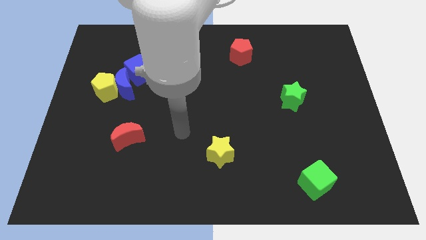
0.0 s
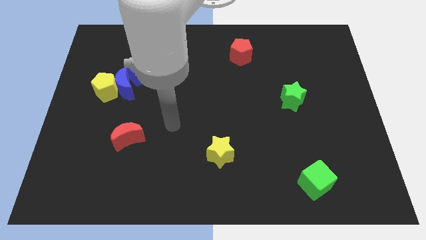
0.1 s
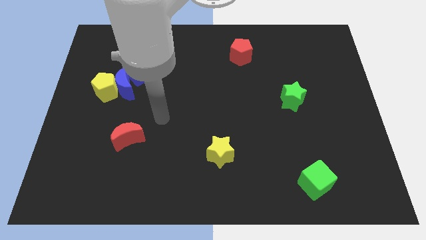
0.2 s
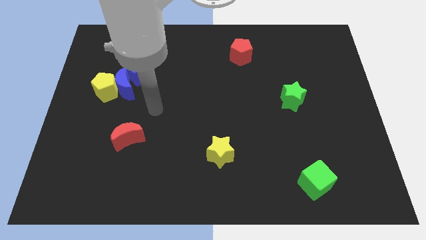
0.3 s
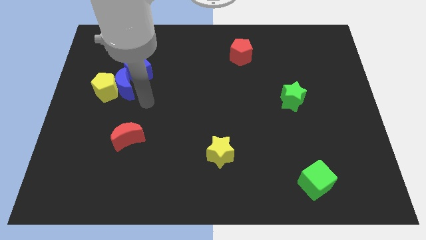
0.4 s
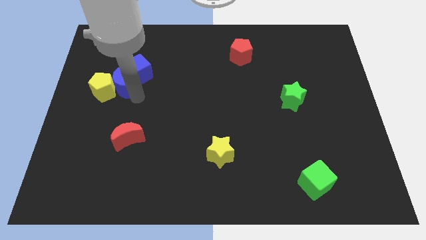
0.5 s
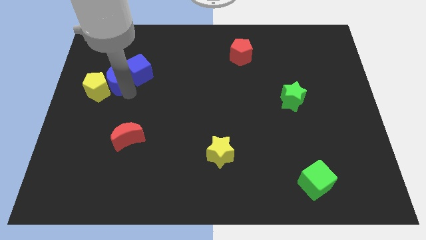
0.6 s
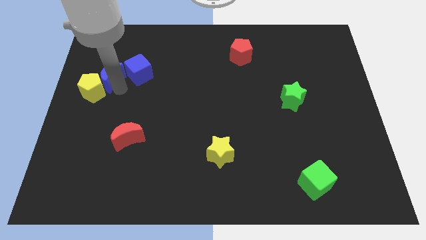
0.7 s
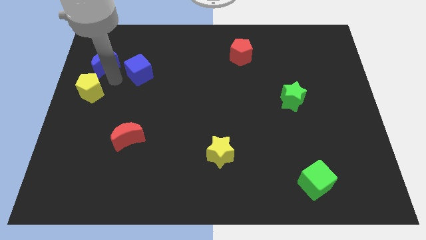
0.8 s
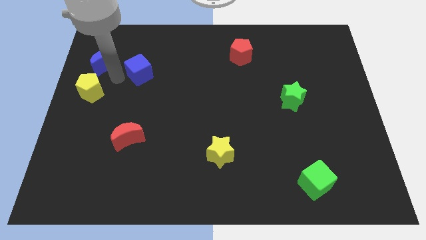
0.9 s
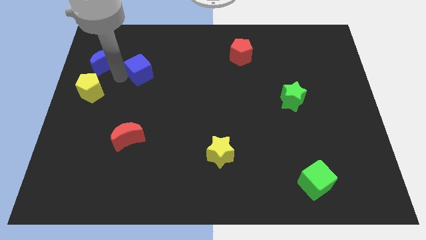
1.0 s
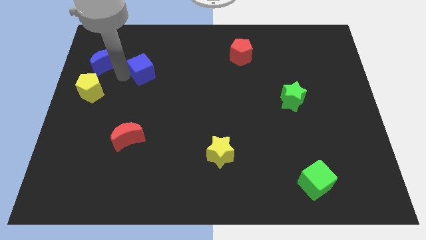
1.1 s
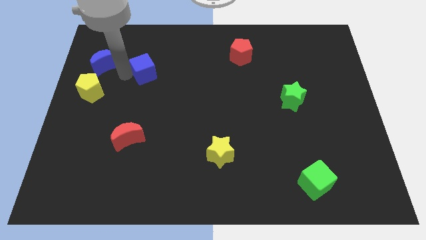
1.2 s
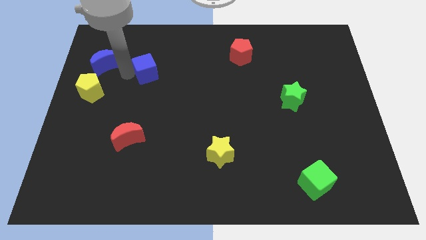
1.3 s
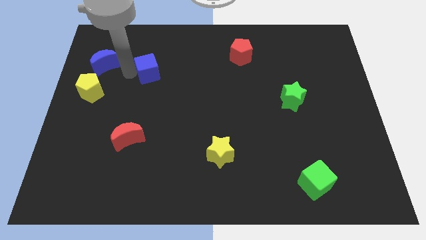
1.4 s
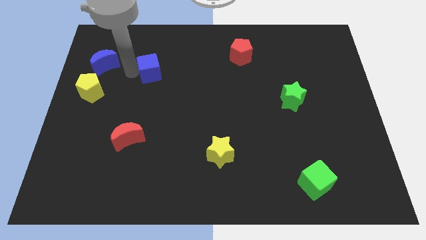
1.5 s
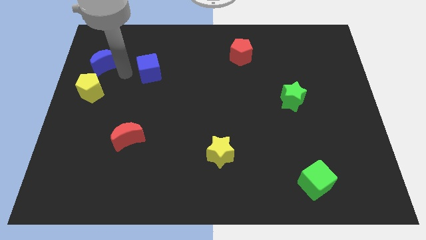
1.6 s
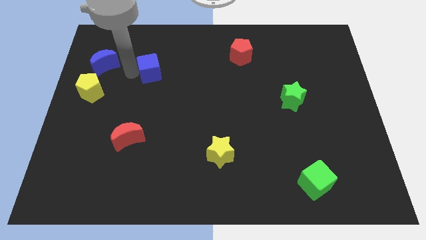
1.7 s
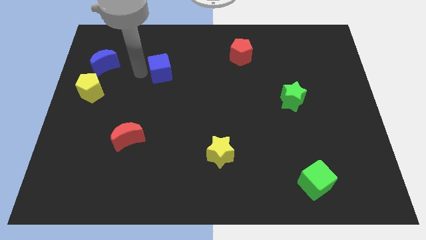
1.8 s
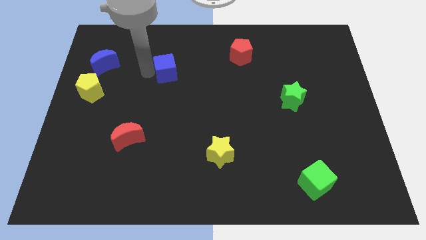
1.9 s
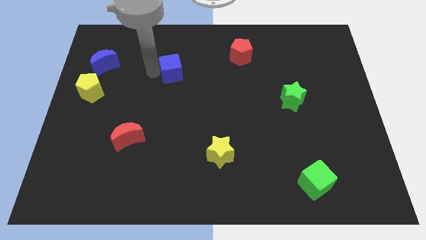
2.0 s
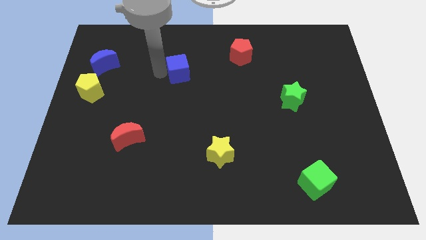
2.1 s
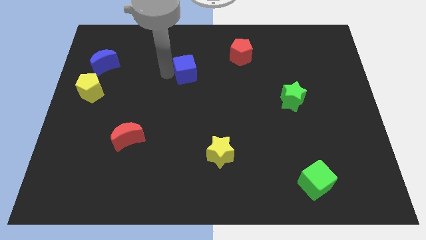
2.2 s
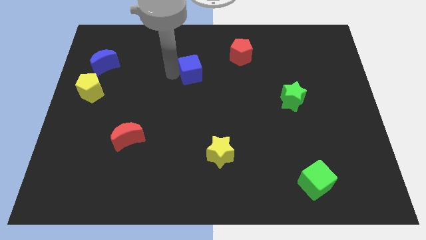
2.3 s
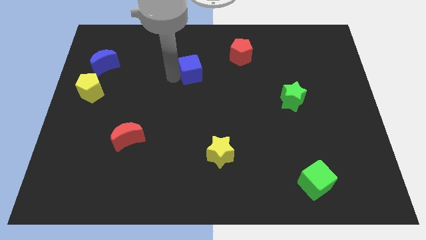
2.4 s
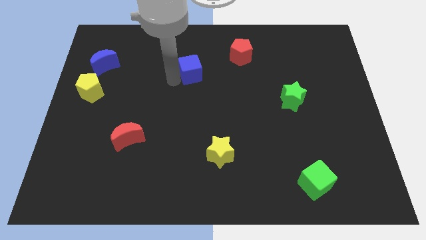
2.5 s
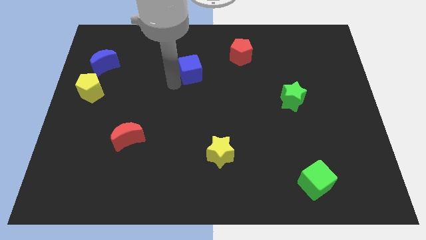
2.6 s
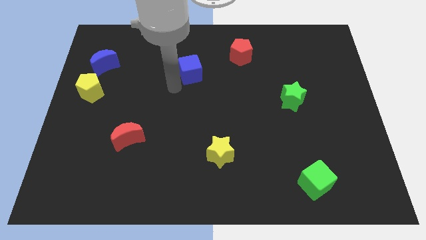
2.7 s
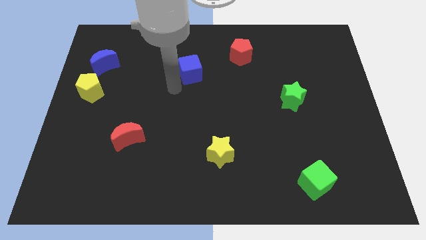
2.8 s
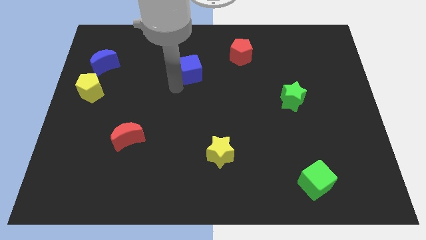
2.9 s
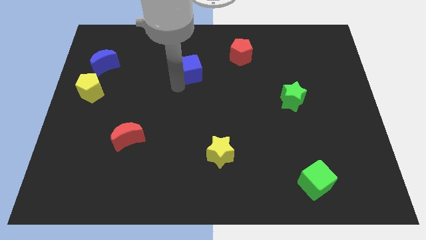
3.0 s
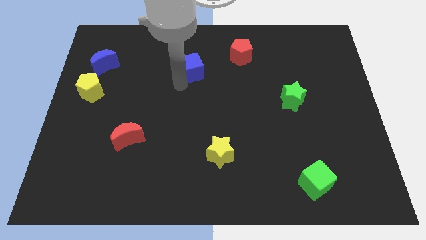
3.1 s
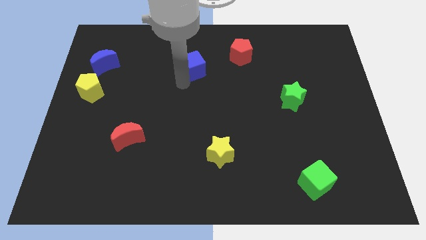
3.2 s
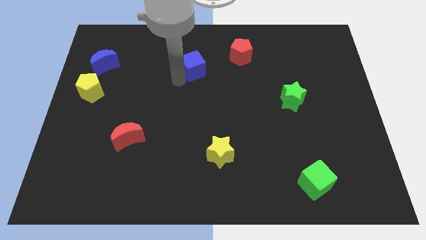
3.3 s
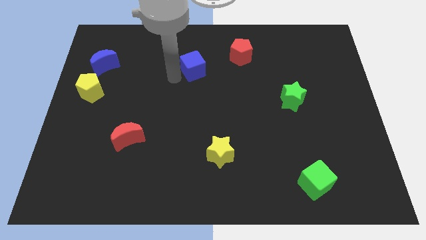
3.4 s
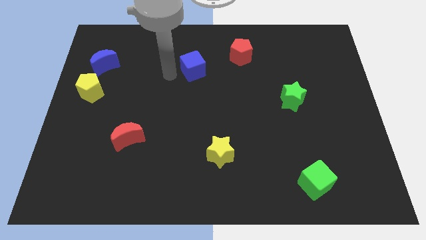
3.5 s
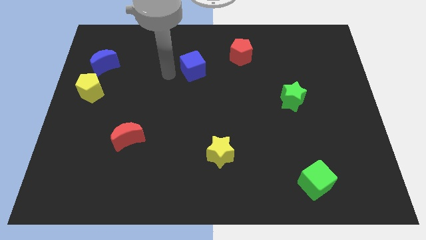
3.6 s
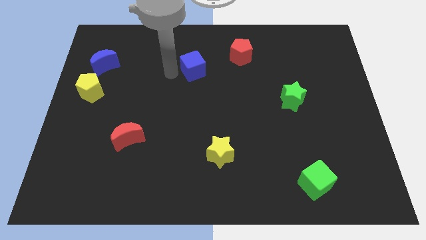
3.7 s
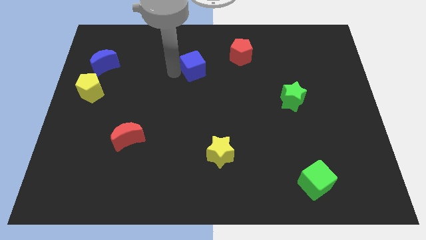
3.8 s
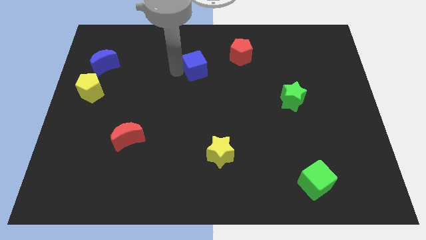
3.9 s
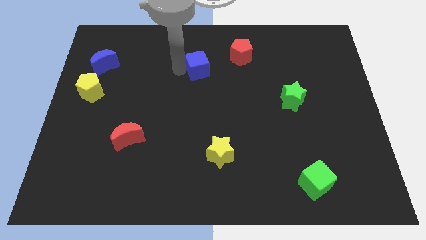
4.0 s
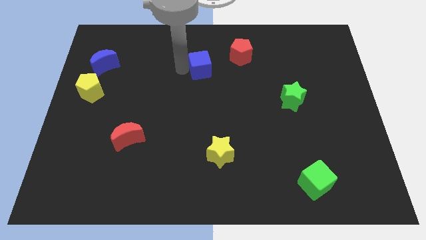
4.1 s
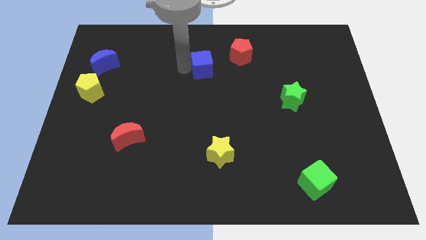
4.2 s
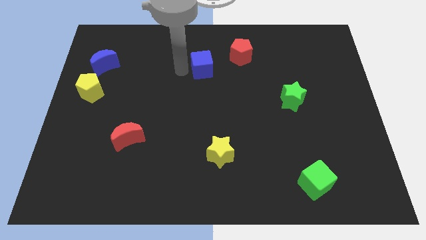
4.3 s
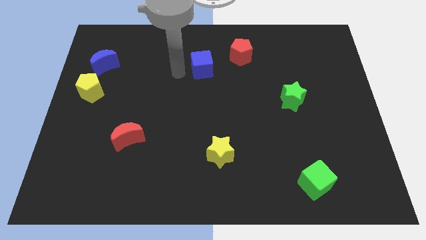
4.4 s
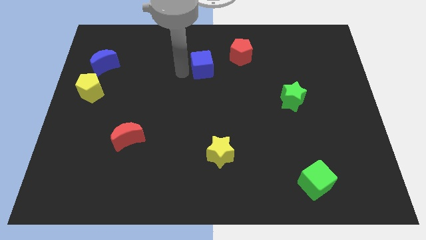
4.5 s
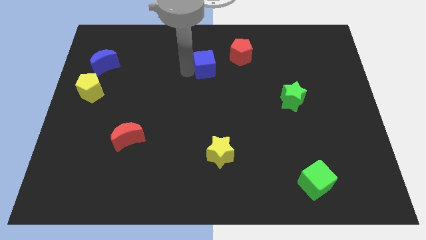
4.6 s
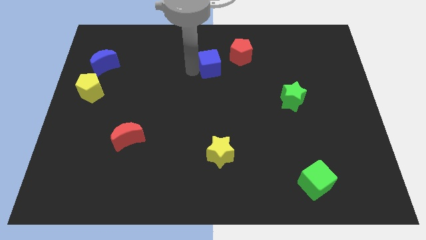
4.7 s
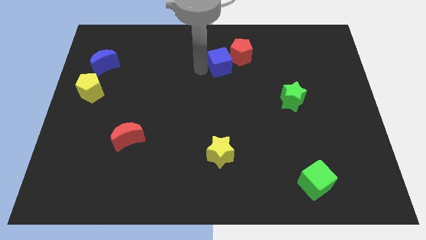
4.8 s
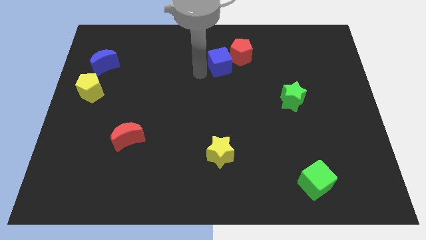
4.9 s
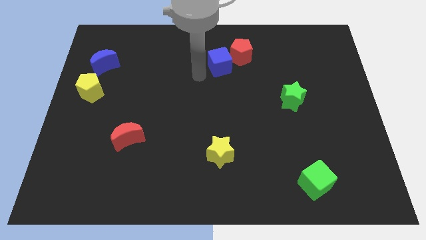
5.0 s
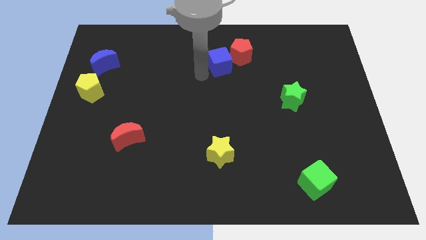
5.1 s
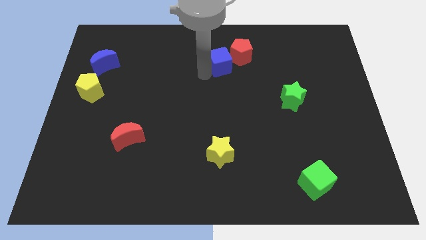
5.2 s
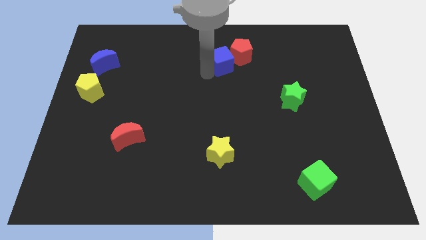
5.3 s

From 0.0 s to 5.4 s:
put the blue cube close to the red pentagon

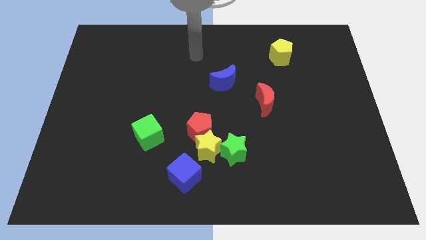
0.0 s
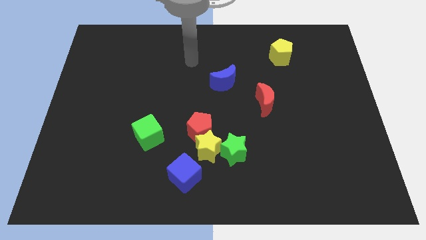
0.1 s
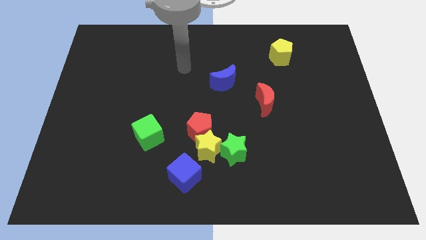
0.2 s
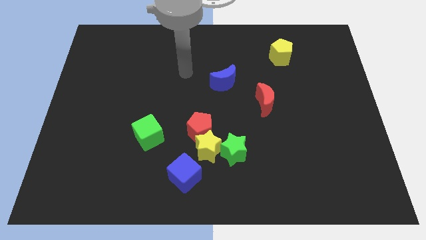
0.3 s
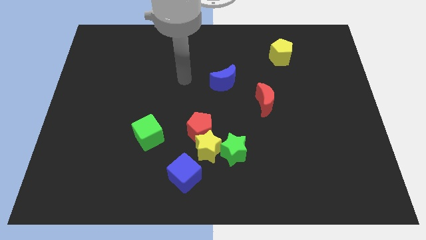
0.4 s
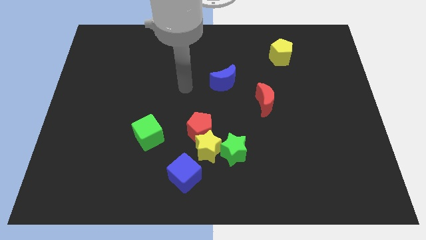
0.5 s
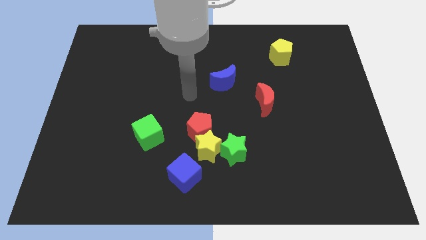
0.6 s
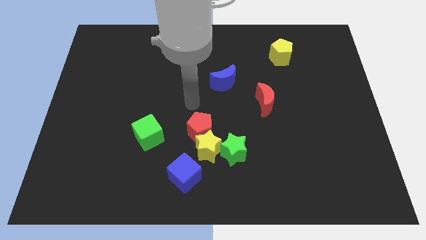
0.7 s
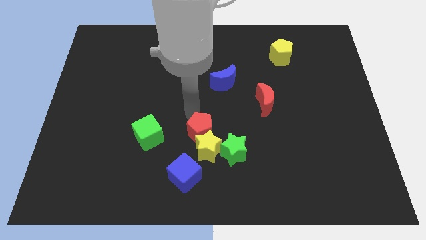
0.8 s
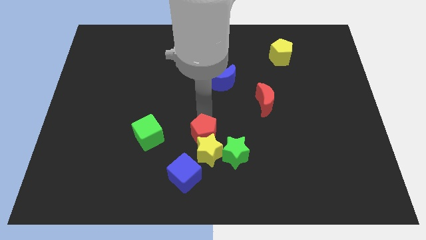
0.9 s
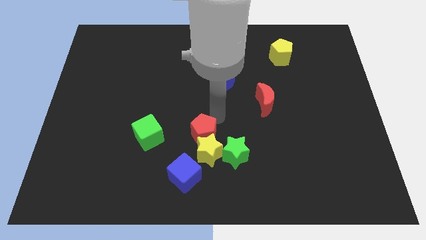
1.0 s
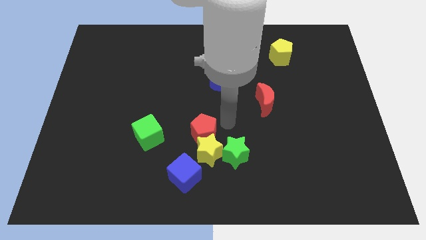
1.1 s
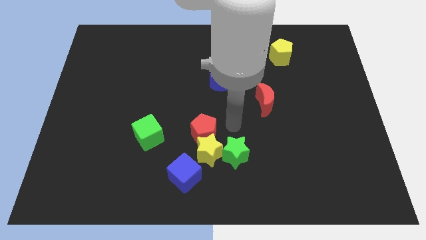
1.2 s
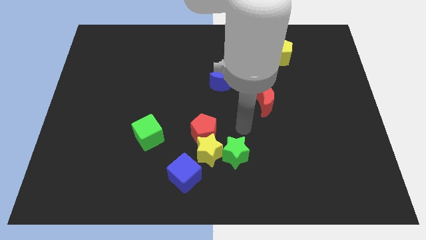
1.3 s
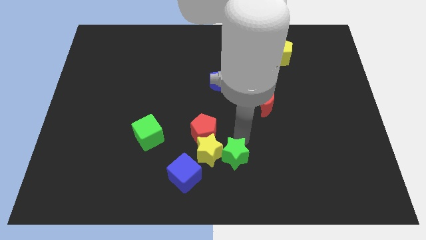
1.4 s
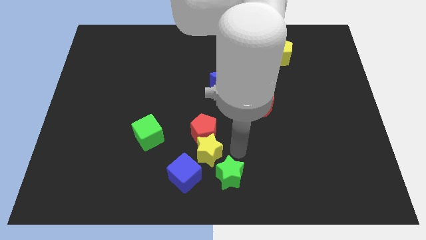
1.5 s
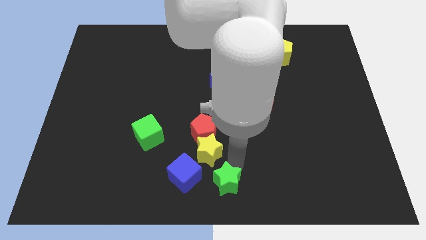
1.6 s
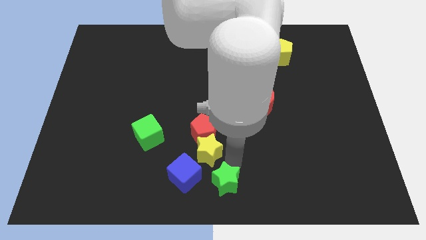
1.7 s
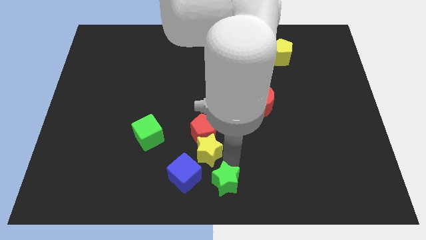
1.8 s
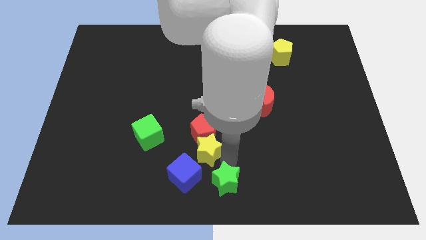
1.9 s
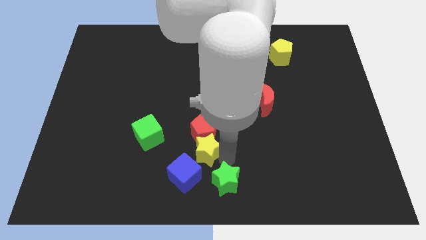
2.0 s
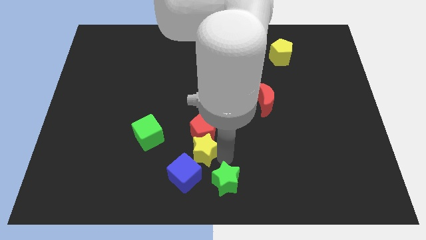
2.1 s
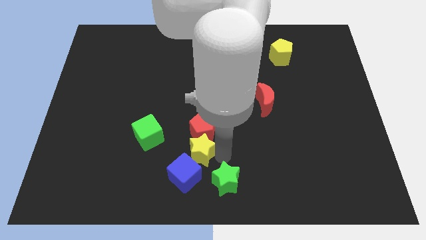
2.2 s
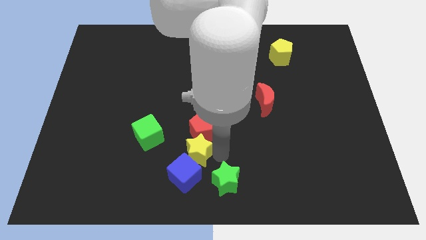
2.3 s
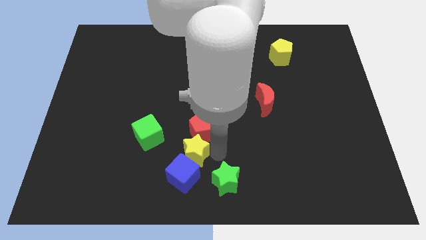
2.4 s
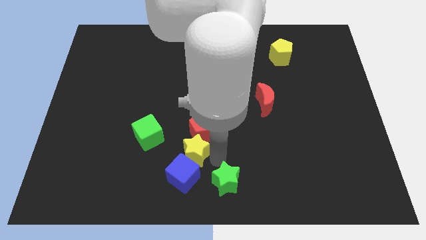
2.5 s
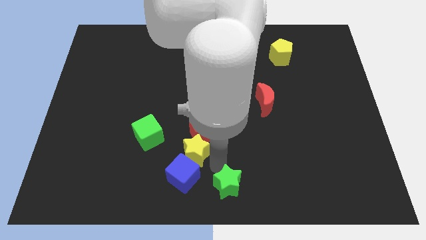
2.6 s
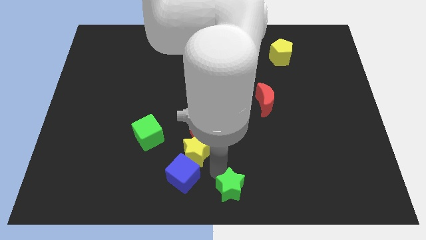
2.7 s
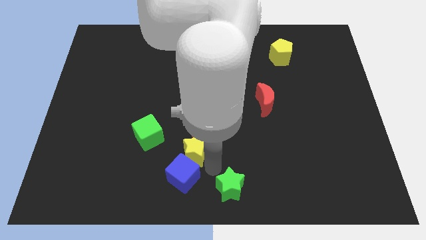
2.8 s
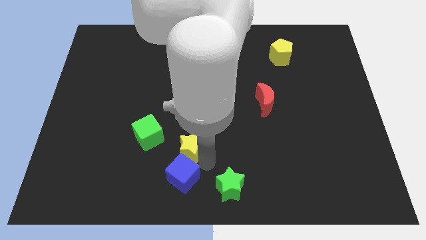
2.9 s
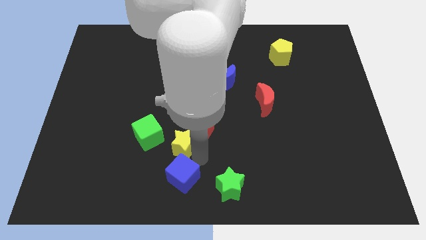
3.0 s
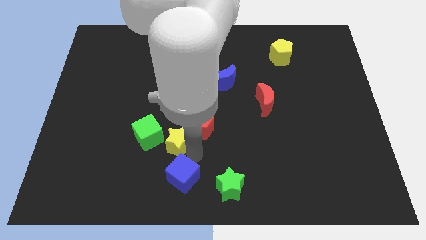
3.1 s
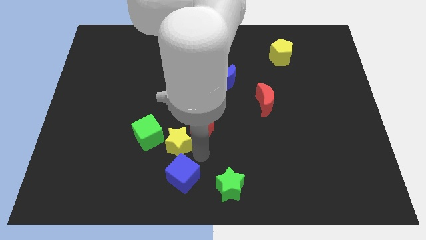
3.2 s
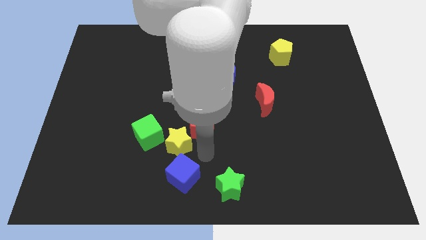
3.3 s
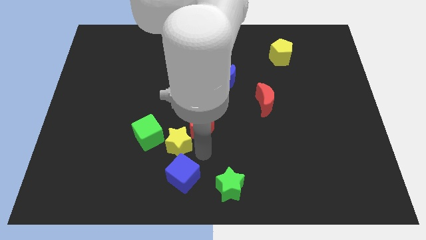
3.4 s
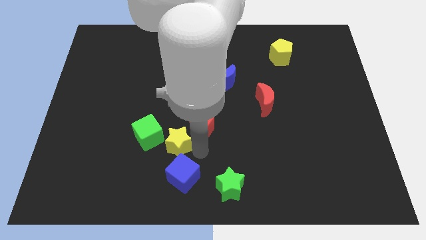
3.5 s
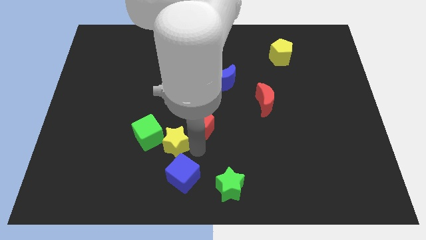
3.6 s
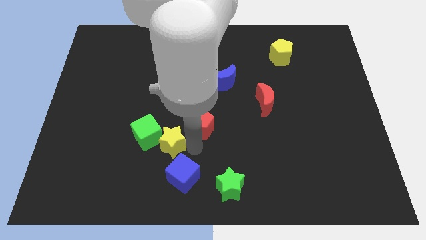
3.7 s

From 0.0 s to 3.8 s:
put the yellow star next to the green cube
